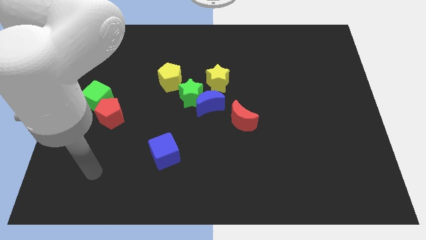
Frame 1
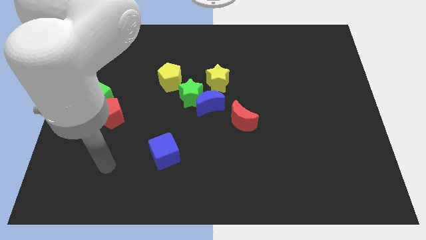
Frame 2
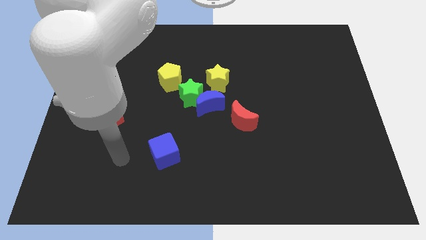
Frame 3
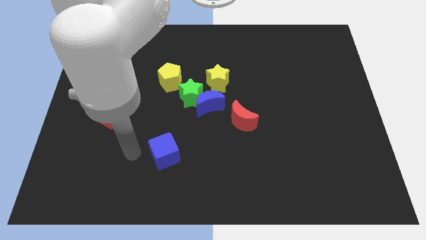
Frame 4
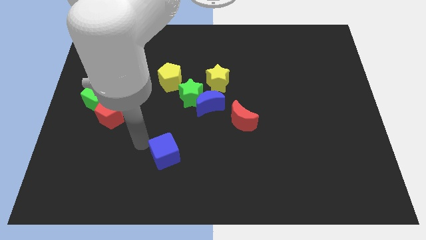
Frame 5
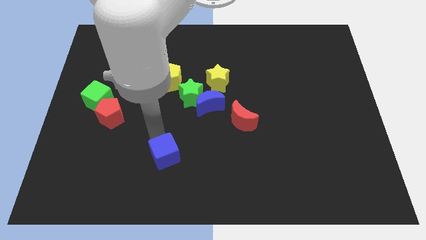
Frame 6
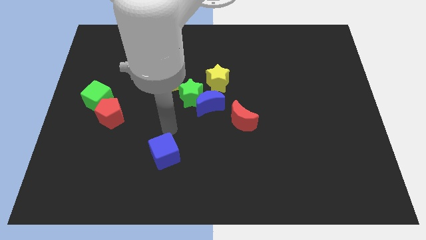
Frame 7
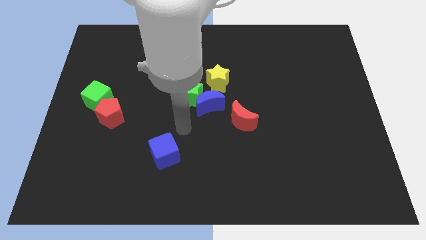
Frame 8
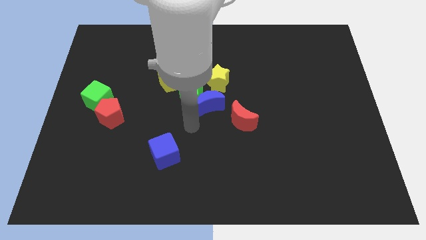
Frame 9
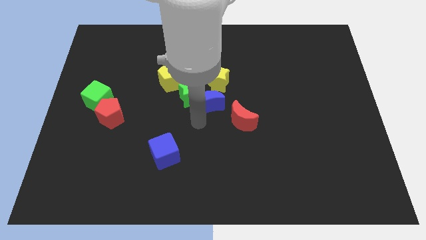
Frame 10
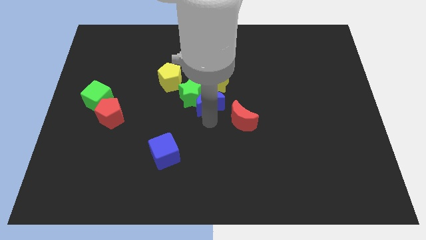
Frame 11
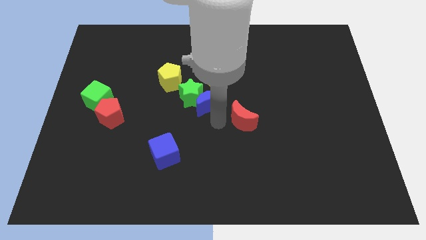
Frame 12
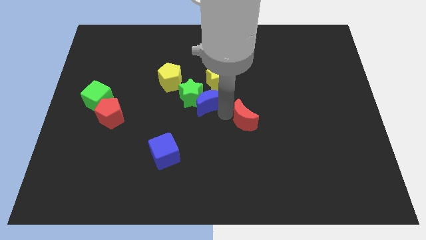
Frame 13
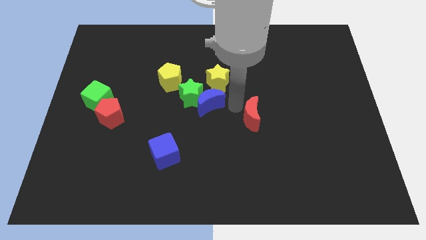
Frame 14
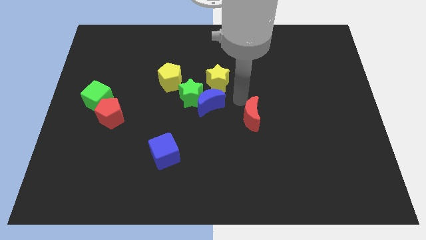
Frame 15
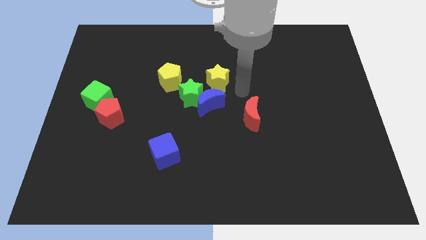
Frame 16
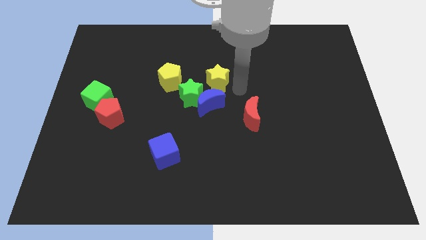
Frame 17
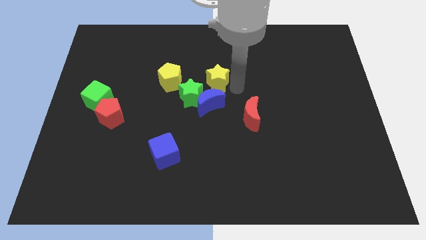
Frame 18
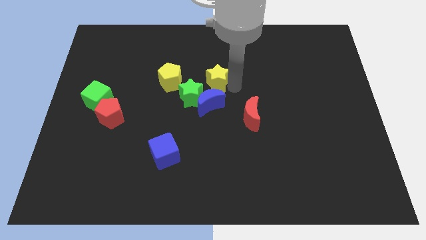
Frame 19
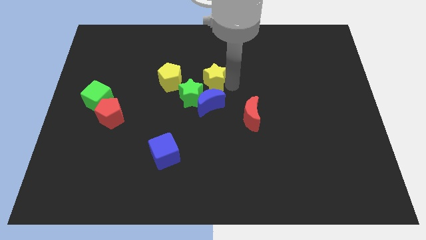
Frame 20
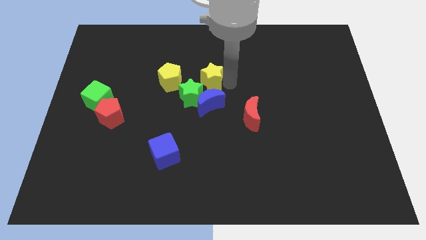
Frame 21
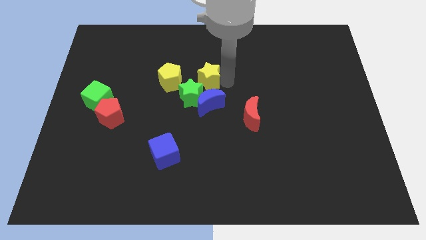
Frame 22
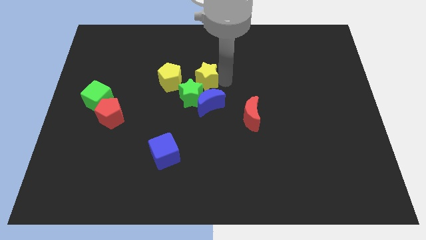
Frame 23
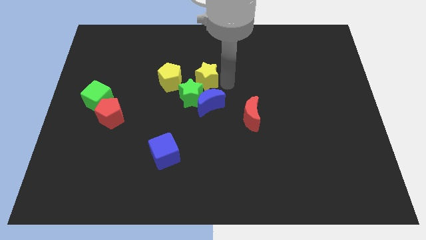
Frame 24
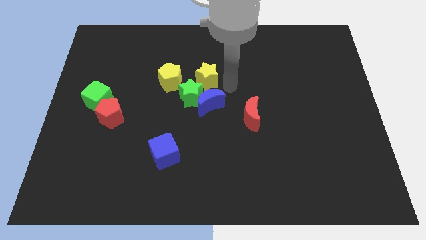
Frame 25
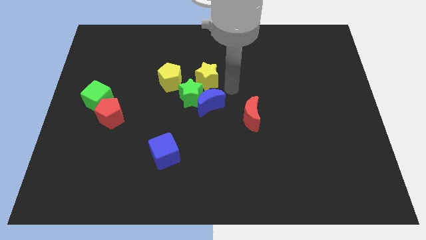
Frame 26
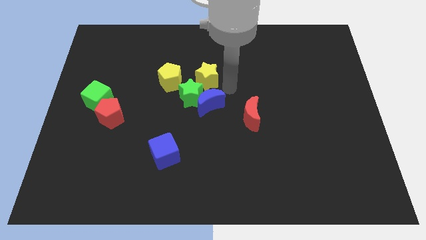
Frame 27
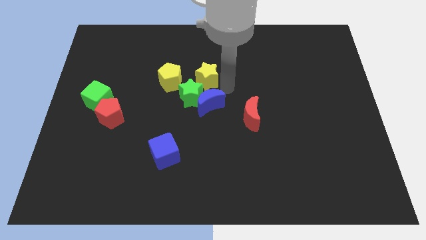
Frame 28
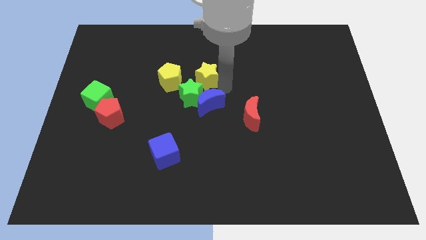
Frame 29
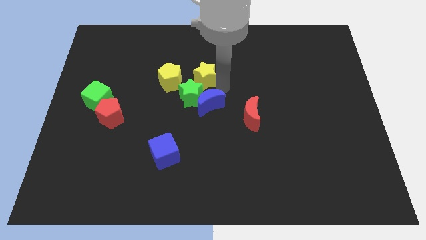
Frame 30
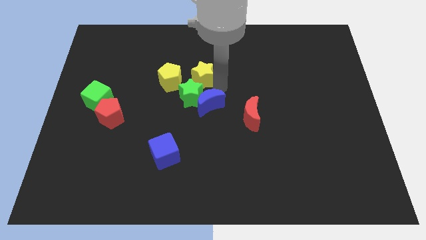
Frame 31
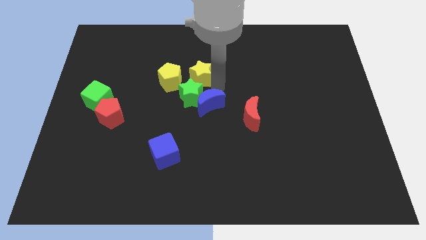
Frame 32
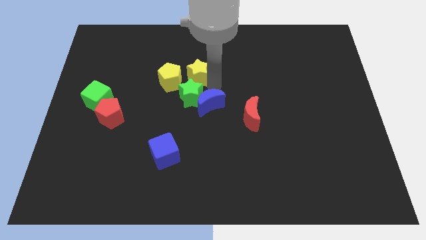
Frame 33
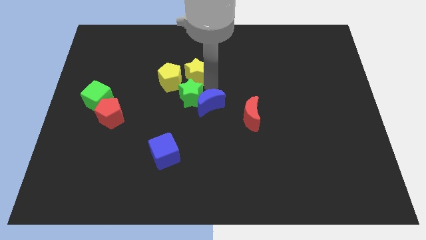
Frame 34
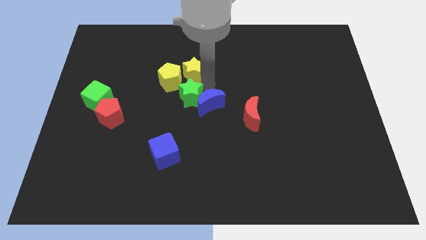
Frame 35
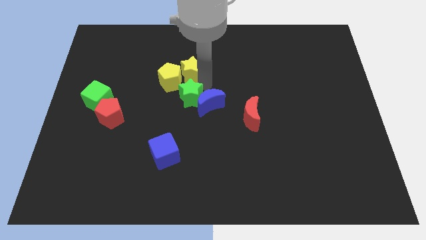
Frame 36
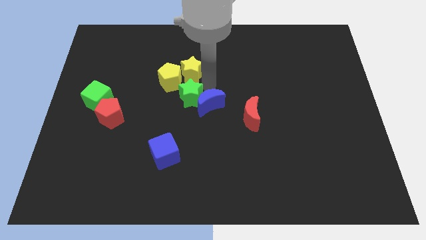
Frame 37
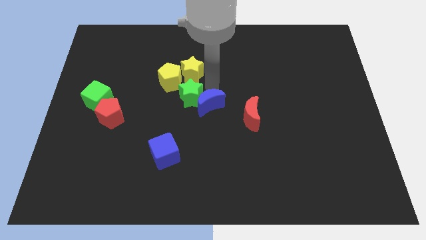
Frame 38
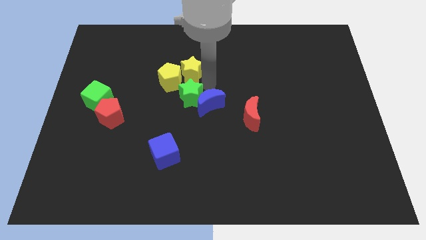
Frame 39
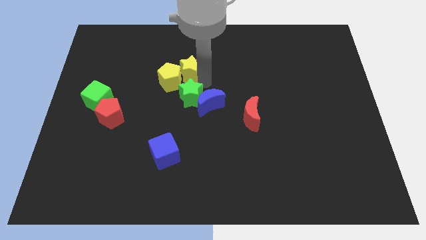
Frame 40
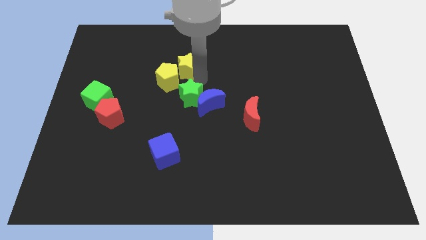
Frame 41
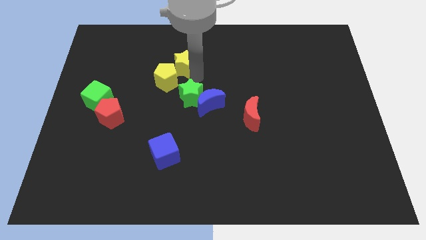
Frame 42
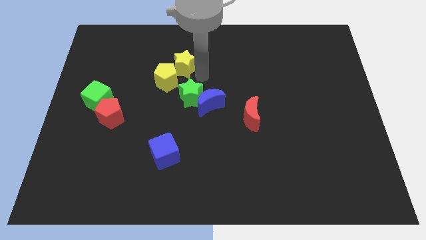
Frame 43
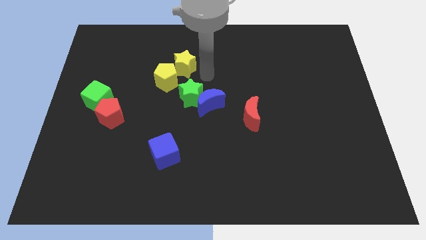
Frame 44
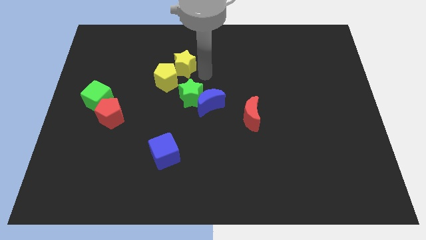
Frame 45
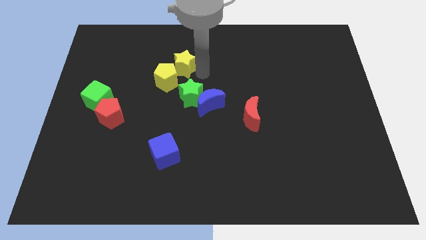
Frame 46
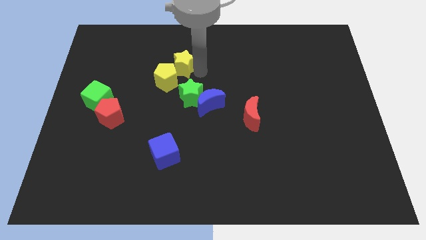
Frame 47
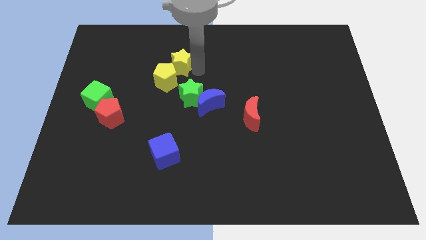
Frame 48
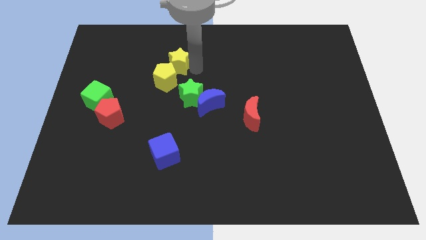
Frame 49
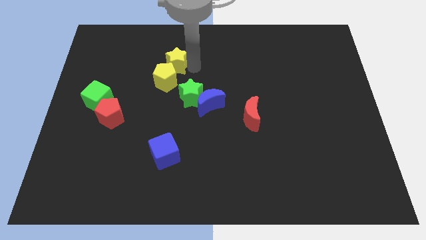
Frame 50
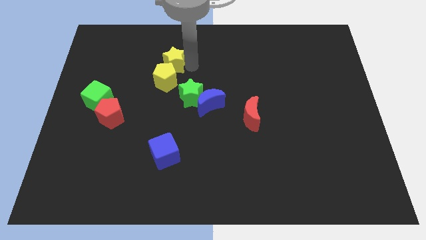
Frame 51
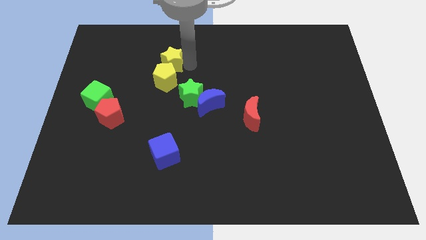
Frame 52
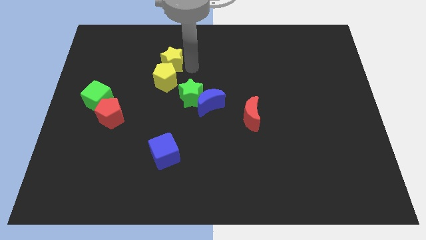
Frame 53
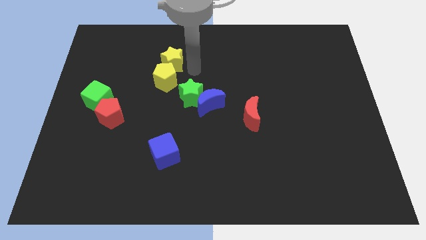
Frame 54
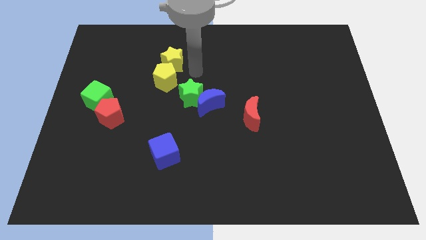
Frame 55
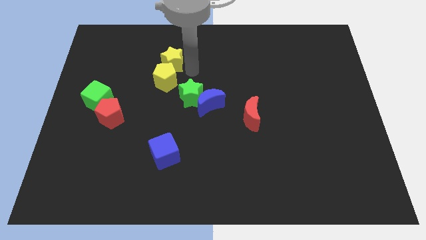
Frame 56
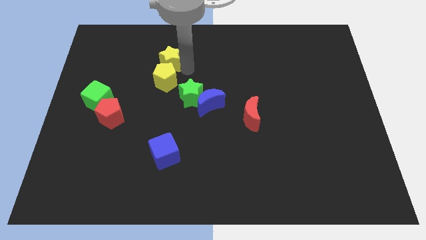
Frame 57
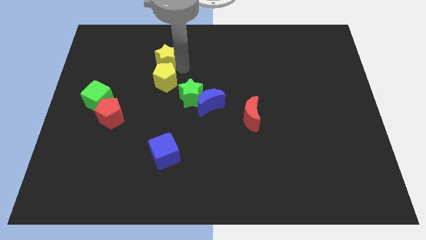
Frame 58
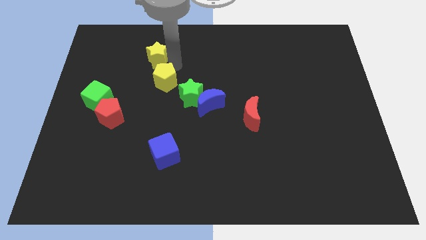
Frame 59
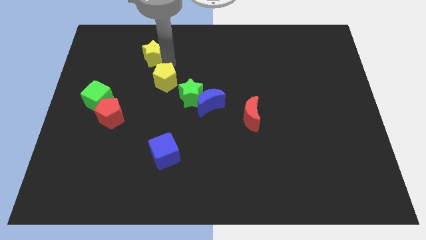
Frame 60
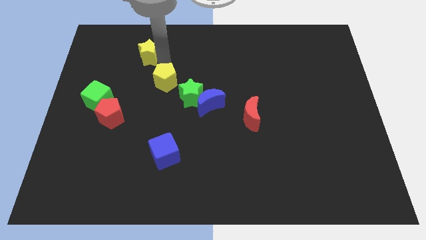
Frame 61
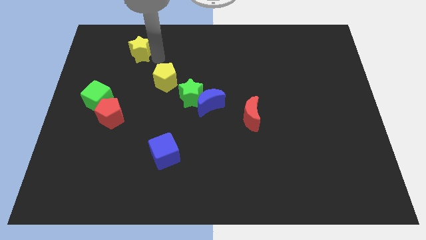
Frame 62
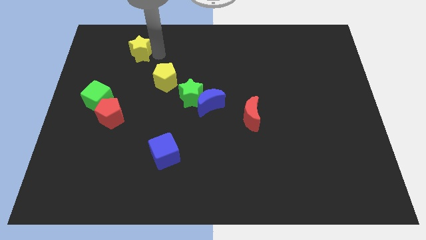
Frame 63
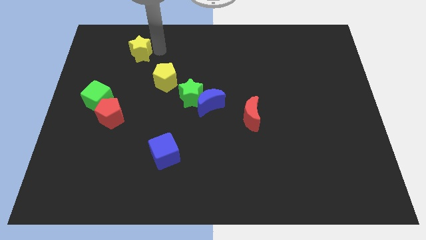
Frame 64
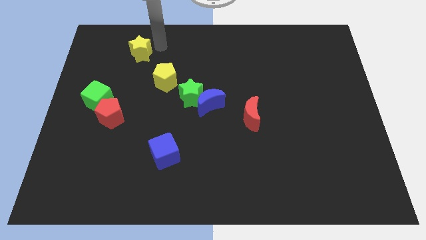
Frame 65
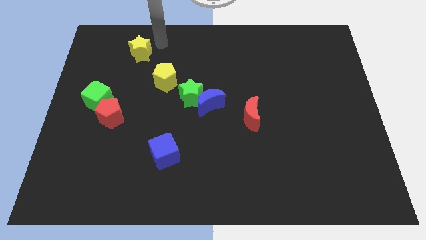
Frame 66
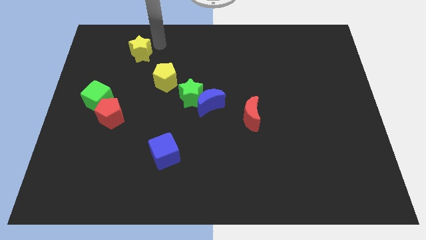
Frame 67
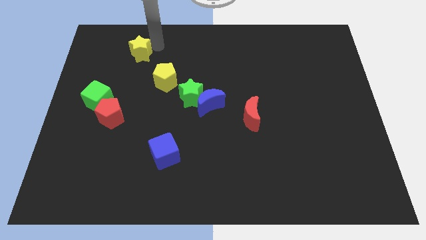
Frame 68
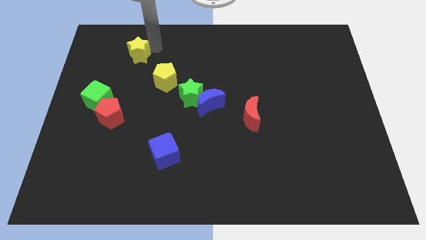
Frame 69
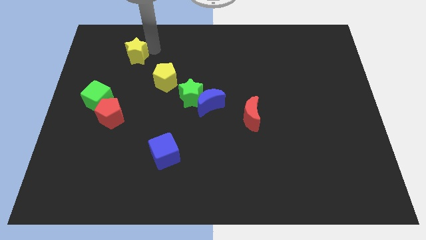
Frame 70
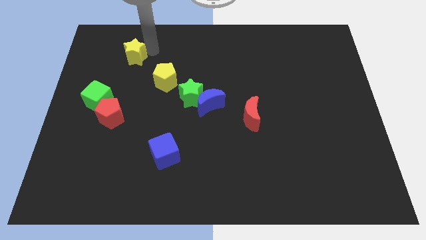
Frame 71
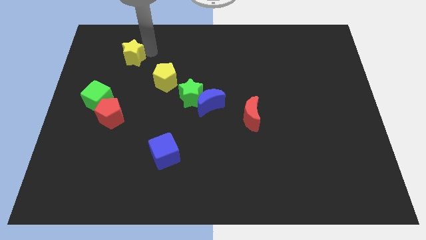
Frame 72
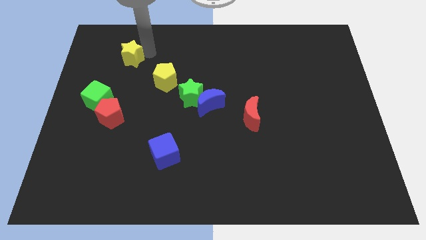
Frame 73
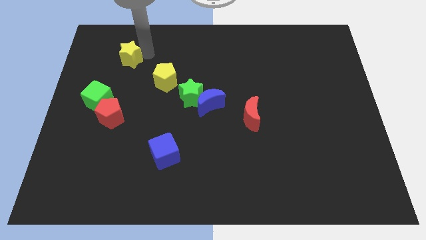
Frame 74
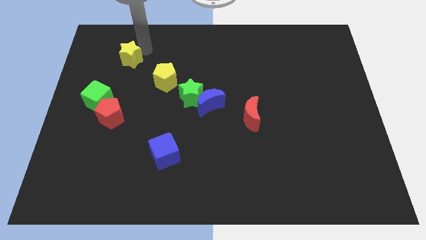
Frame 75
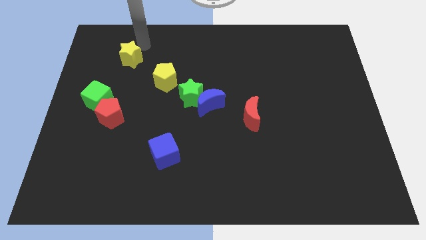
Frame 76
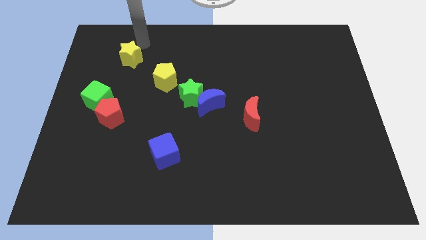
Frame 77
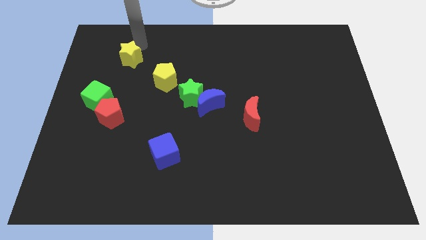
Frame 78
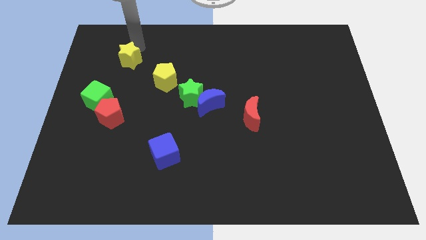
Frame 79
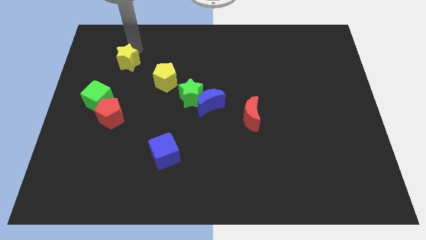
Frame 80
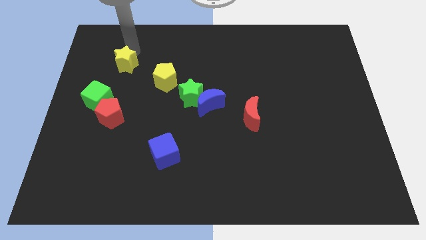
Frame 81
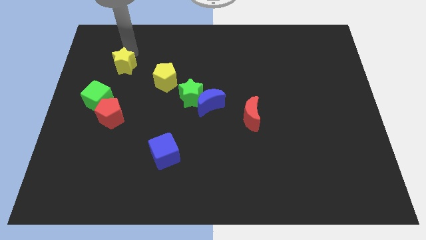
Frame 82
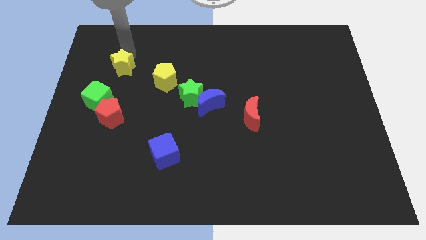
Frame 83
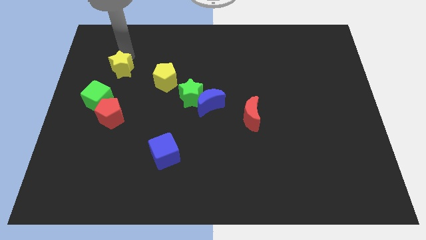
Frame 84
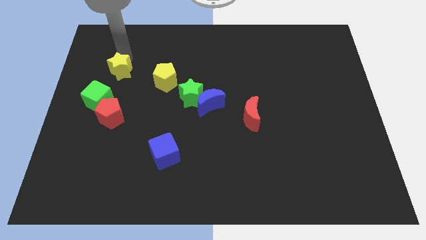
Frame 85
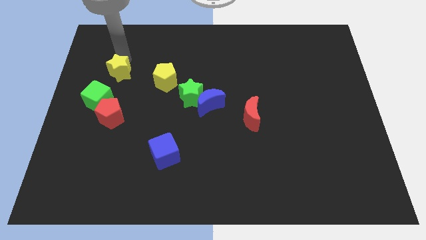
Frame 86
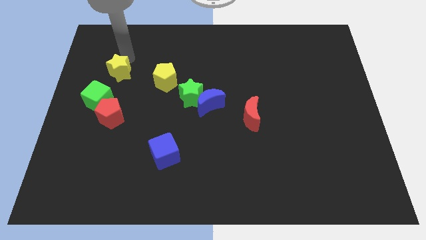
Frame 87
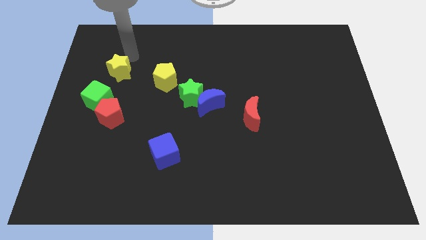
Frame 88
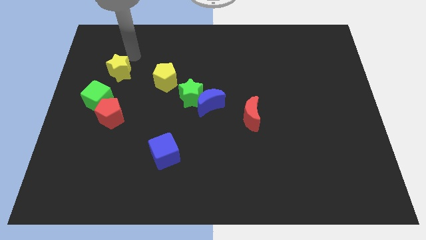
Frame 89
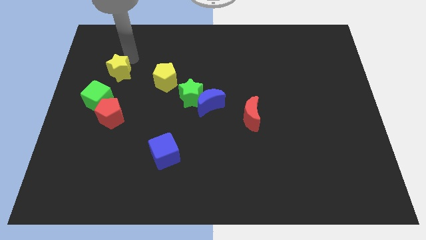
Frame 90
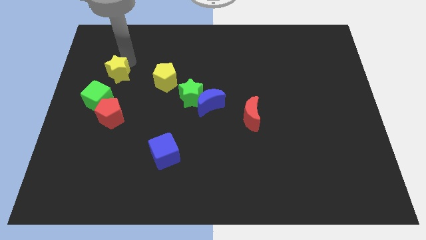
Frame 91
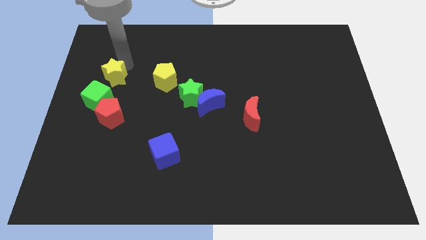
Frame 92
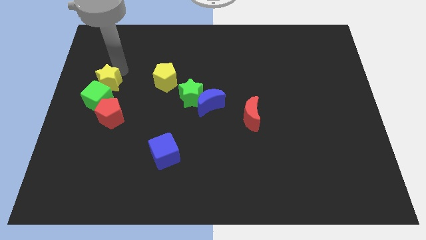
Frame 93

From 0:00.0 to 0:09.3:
put the yellow star close to the green cube
